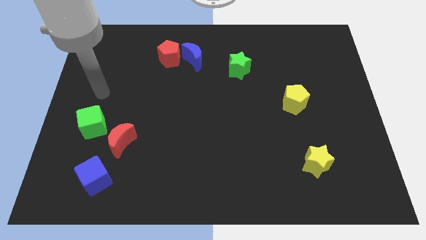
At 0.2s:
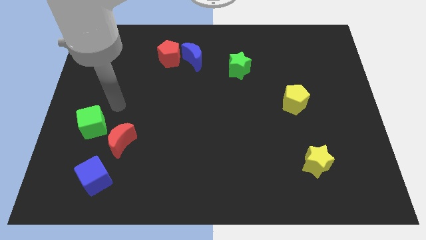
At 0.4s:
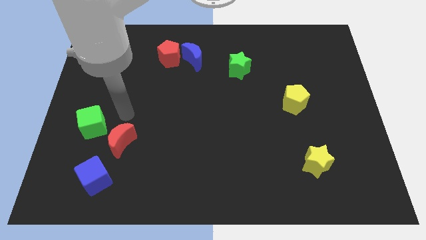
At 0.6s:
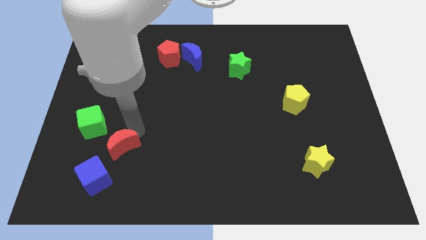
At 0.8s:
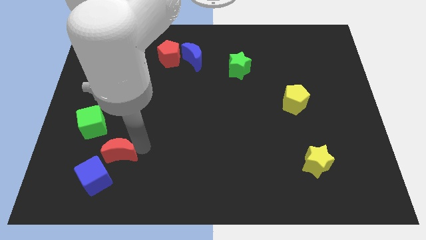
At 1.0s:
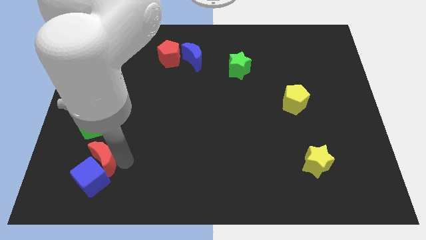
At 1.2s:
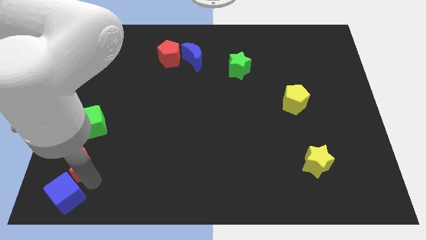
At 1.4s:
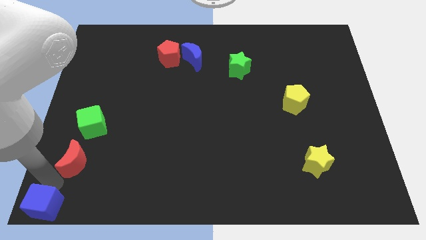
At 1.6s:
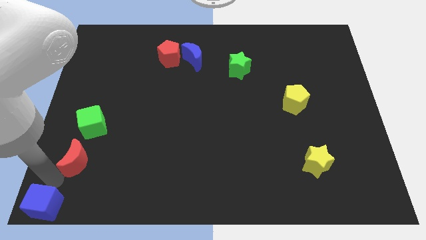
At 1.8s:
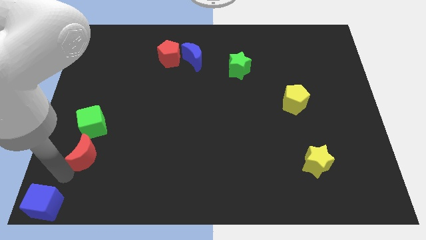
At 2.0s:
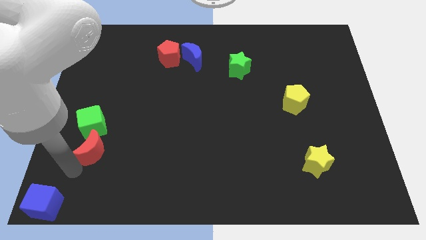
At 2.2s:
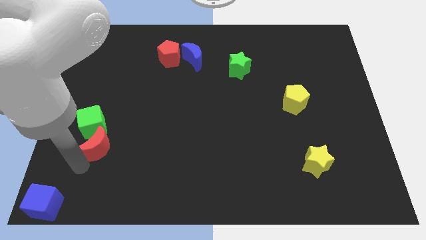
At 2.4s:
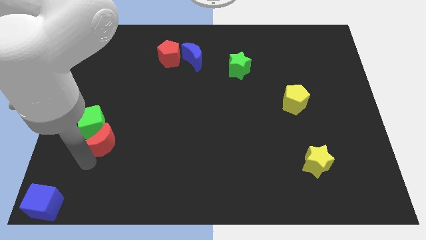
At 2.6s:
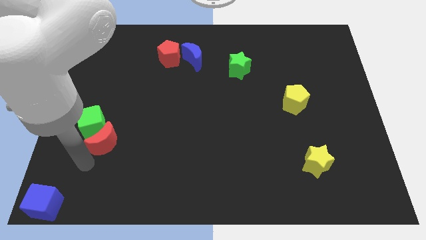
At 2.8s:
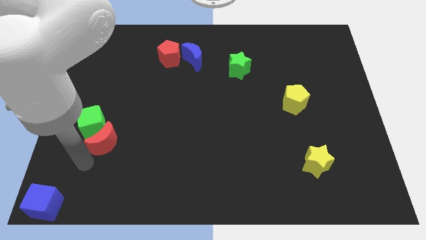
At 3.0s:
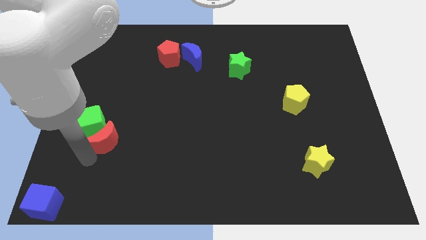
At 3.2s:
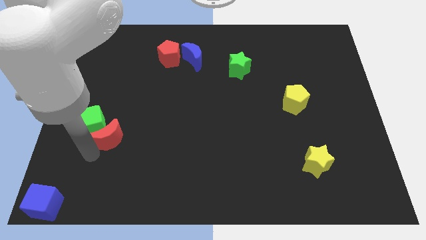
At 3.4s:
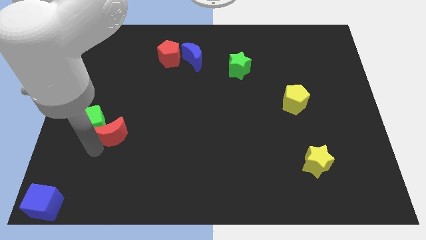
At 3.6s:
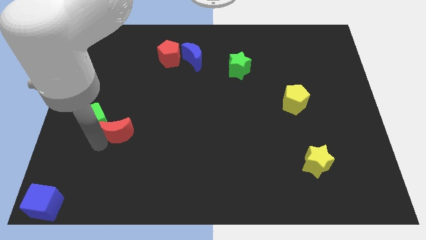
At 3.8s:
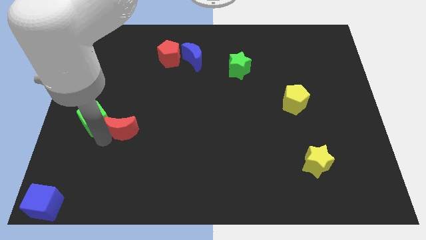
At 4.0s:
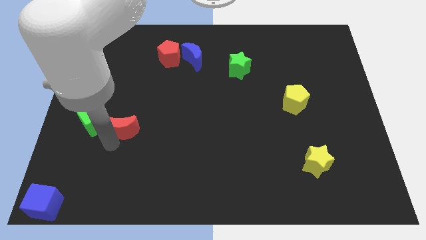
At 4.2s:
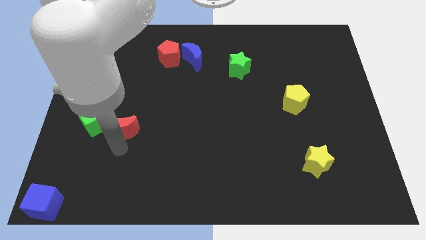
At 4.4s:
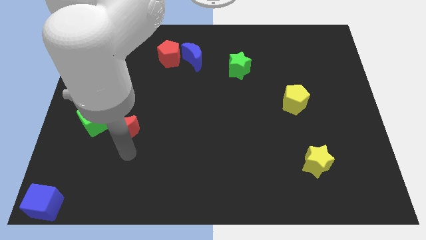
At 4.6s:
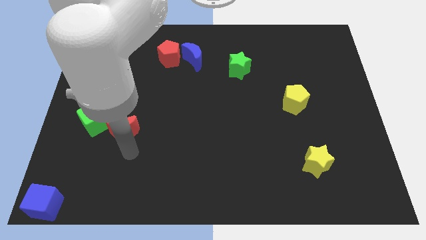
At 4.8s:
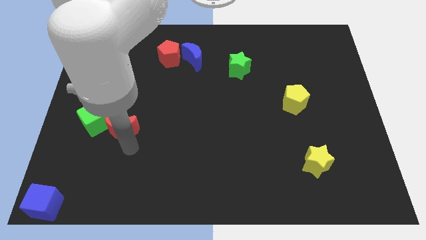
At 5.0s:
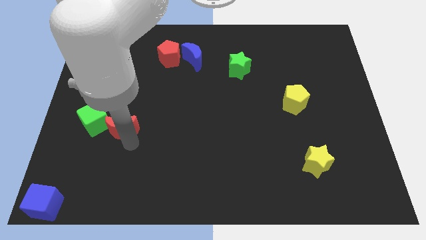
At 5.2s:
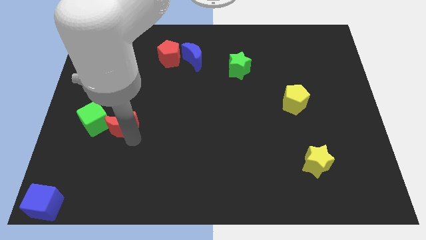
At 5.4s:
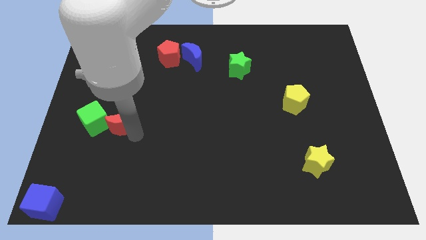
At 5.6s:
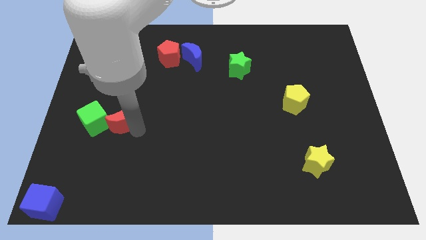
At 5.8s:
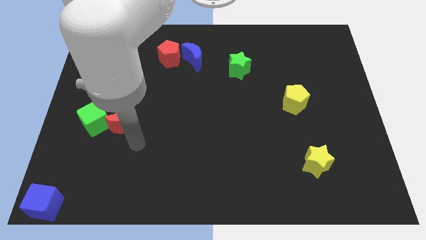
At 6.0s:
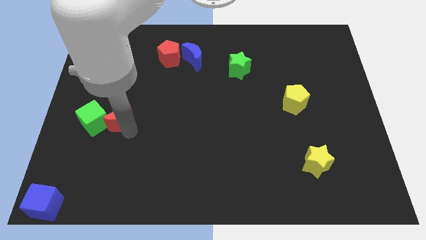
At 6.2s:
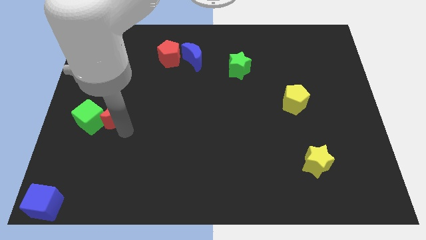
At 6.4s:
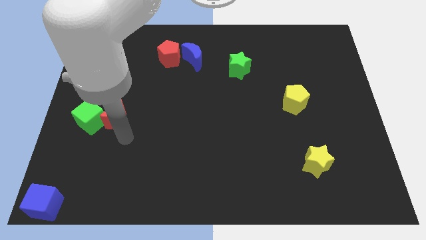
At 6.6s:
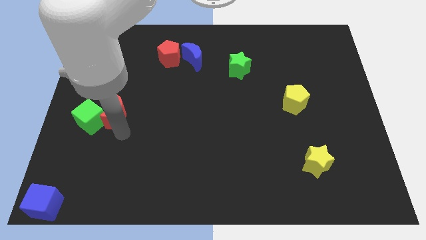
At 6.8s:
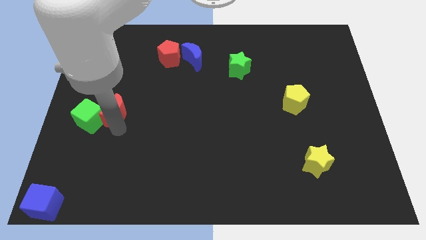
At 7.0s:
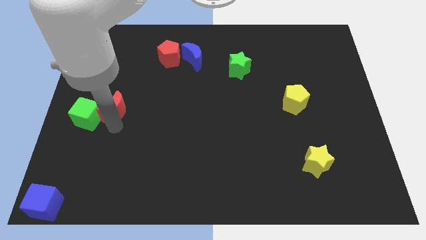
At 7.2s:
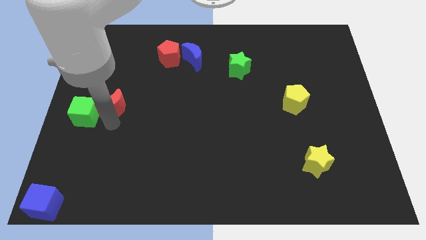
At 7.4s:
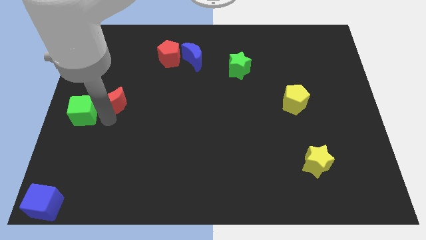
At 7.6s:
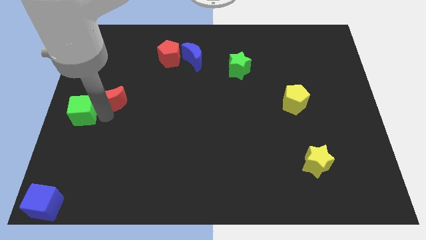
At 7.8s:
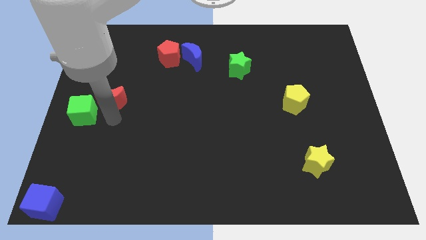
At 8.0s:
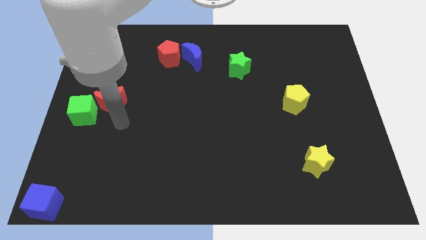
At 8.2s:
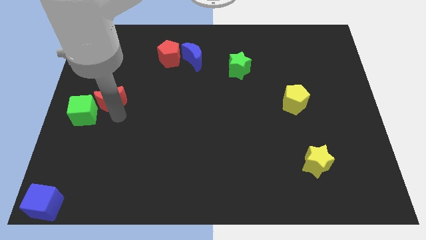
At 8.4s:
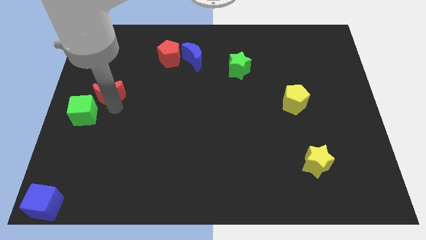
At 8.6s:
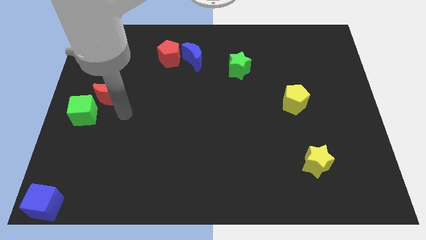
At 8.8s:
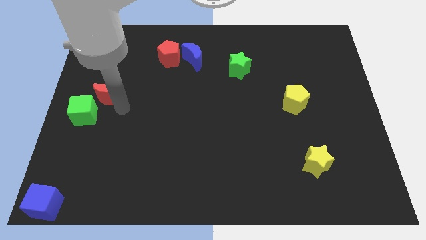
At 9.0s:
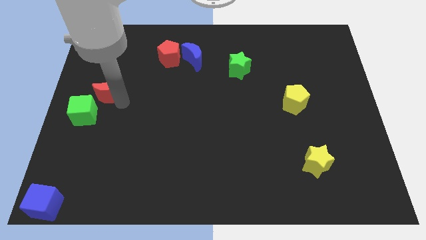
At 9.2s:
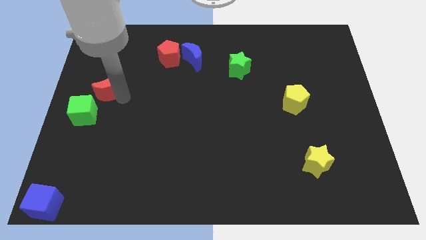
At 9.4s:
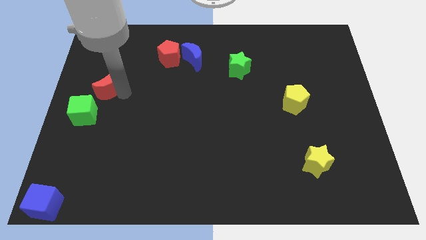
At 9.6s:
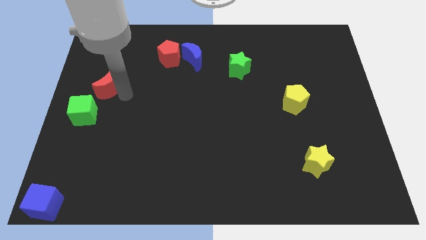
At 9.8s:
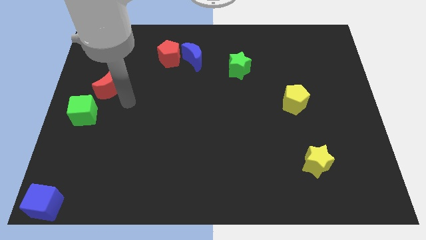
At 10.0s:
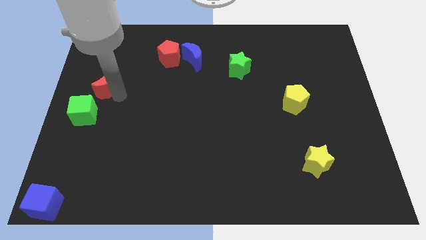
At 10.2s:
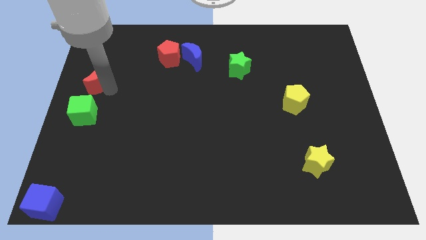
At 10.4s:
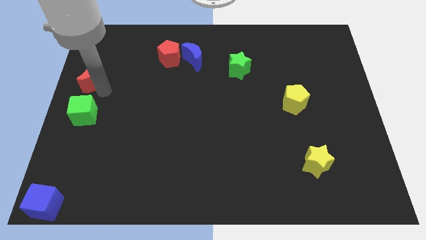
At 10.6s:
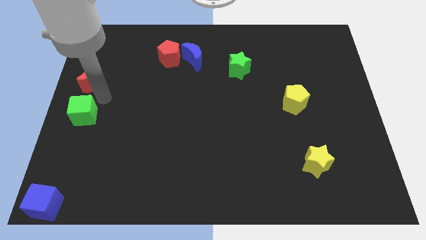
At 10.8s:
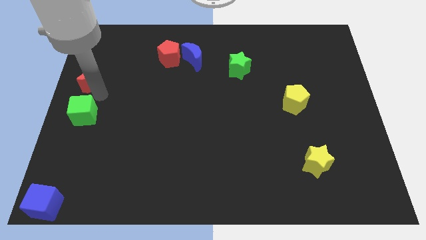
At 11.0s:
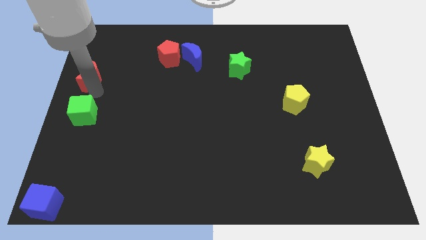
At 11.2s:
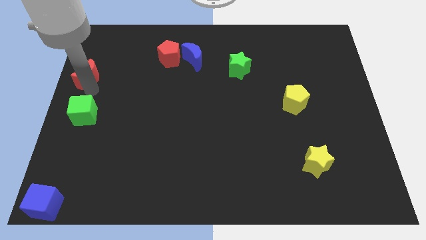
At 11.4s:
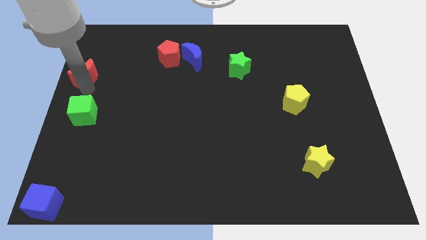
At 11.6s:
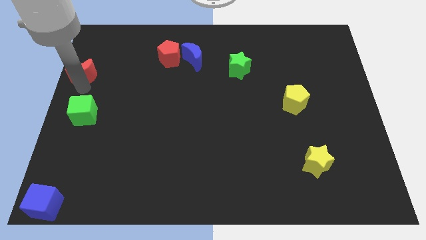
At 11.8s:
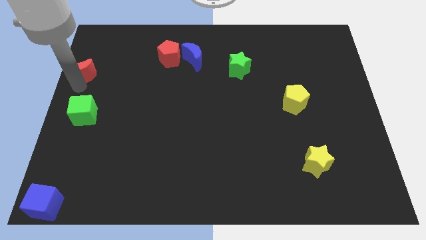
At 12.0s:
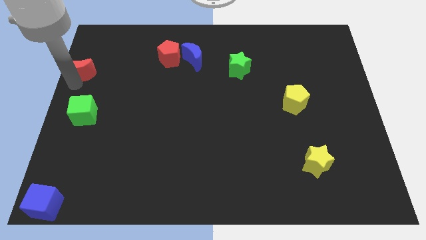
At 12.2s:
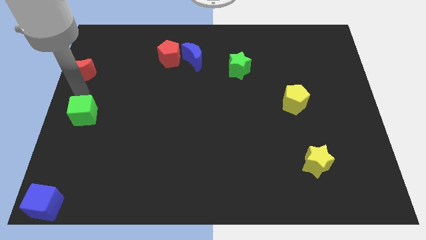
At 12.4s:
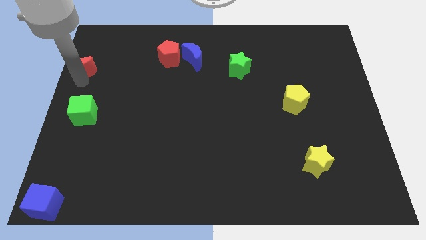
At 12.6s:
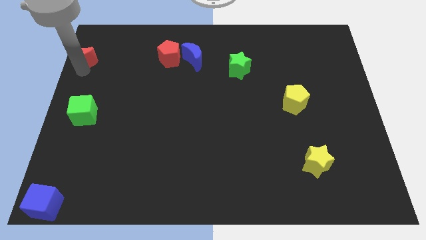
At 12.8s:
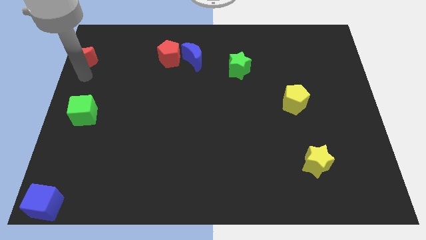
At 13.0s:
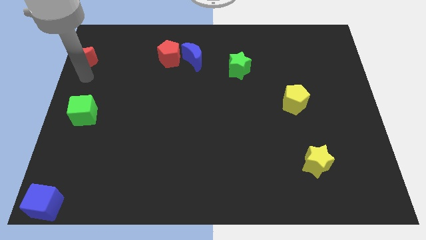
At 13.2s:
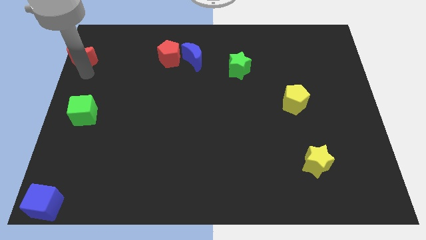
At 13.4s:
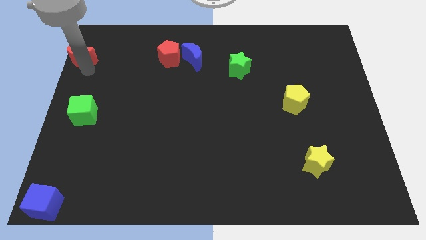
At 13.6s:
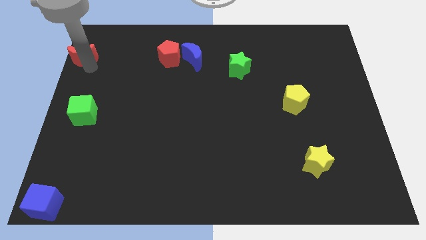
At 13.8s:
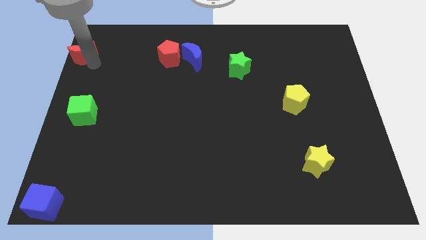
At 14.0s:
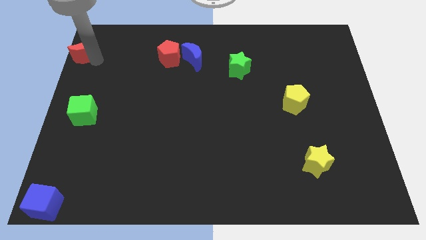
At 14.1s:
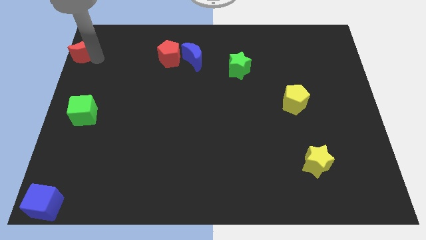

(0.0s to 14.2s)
push the red moon to the top left of the board
